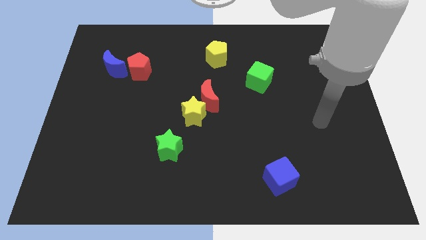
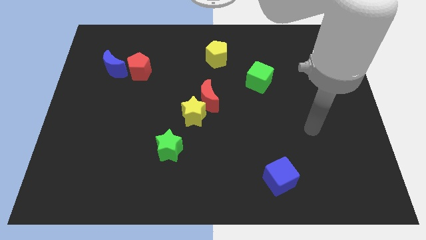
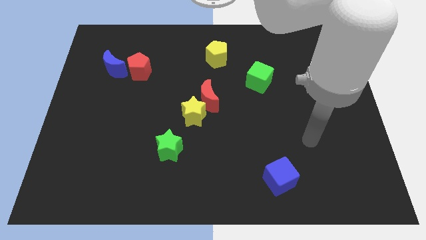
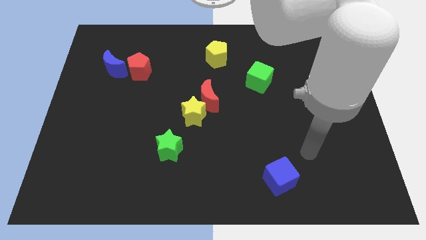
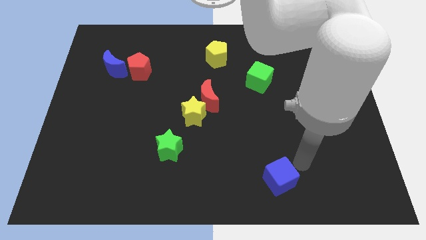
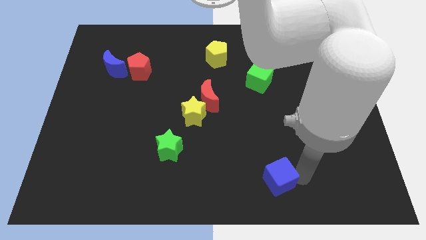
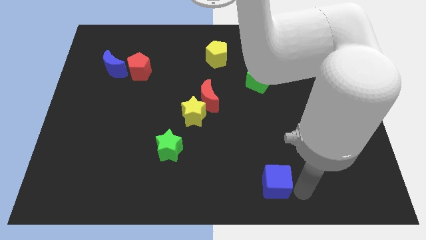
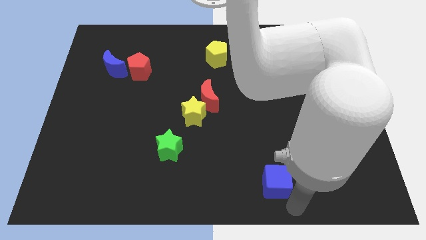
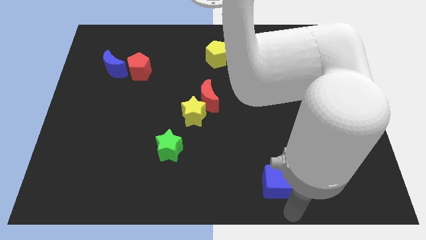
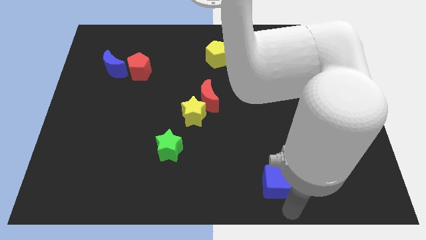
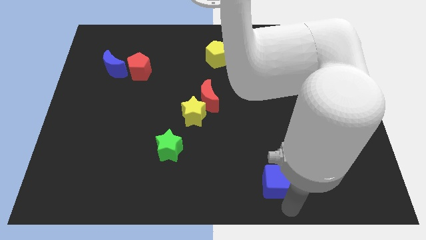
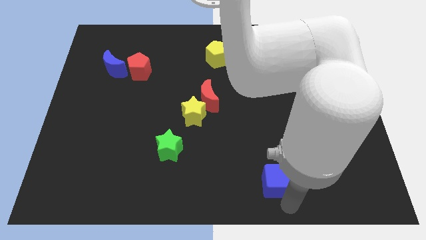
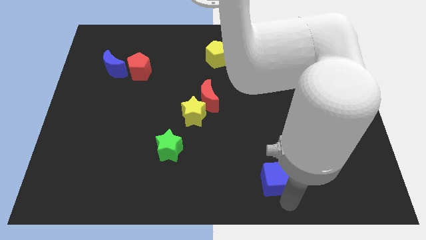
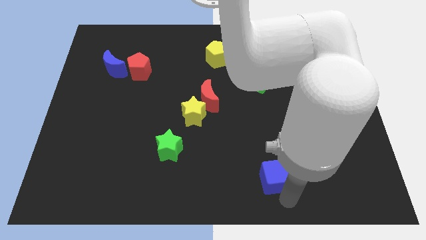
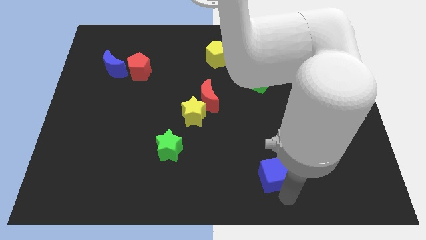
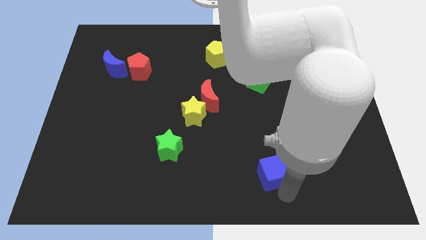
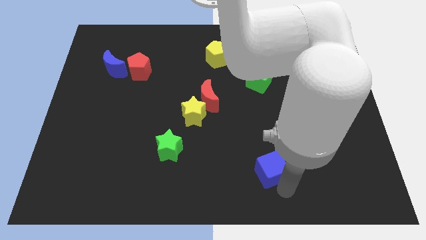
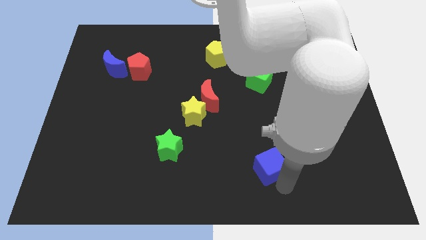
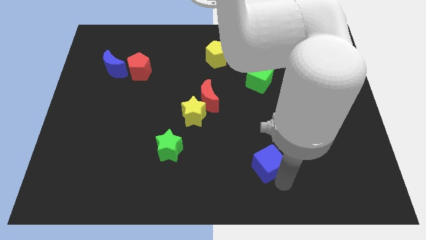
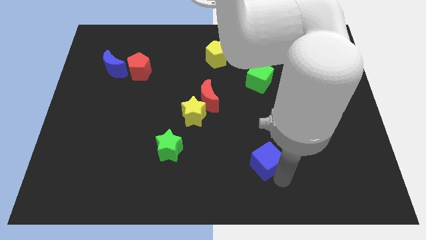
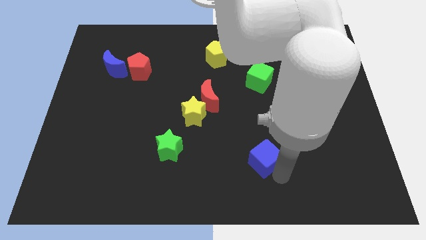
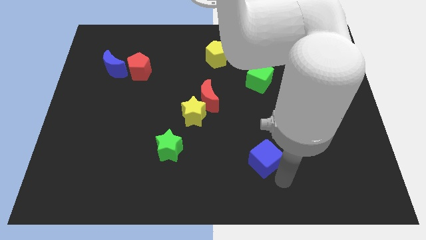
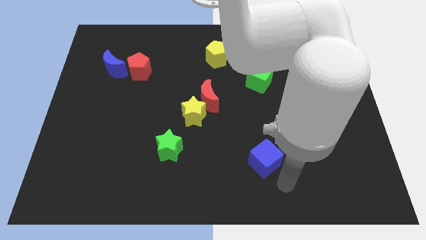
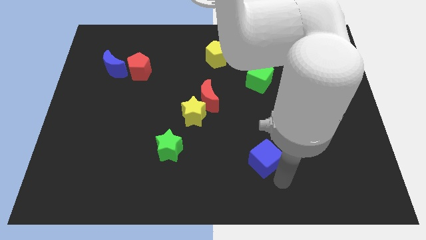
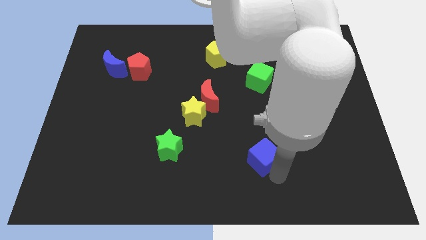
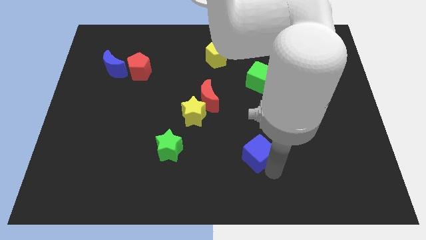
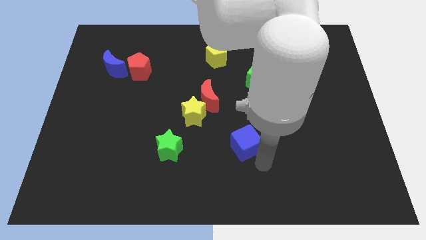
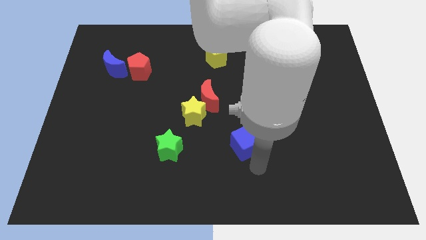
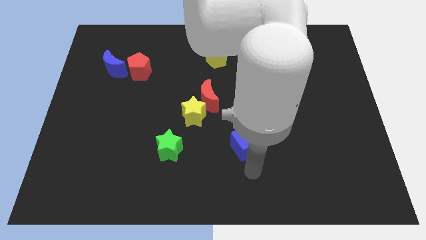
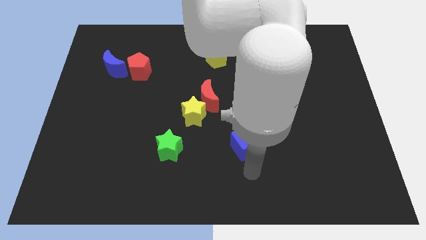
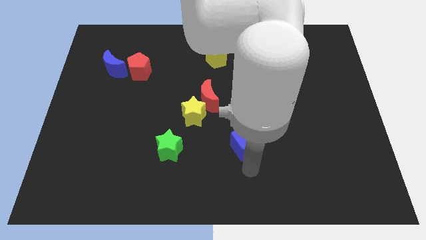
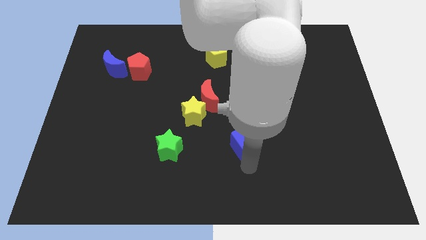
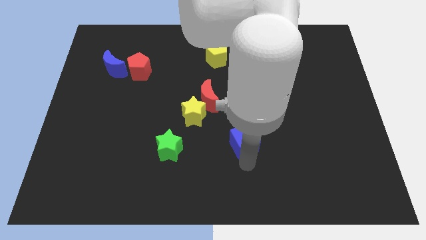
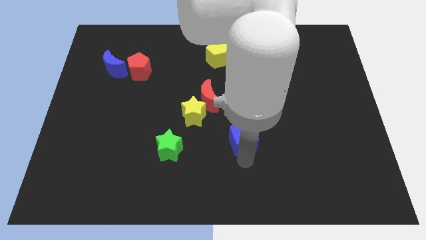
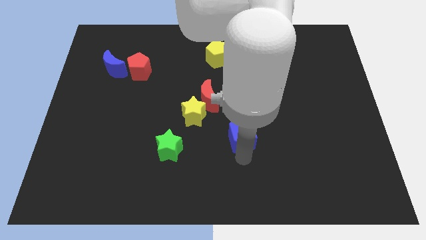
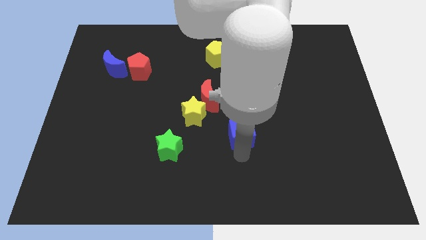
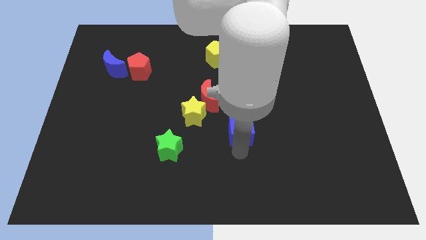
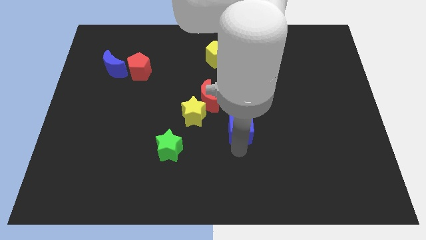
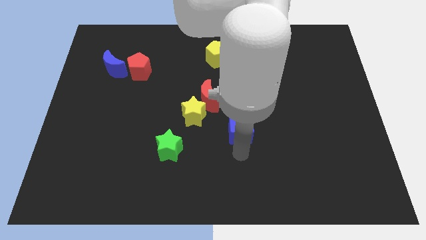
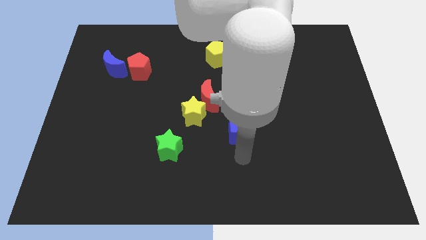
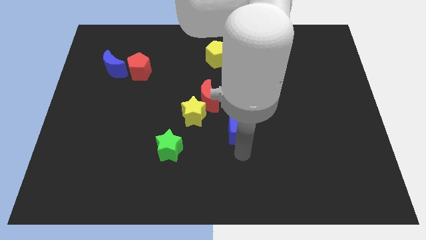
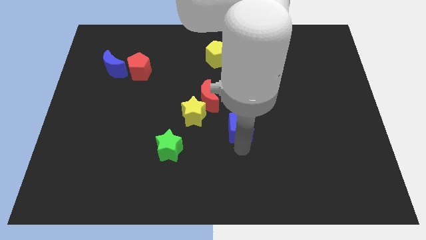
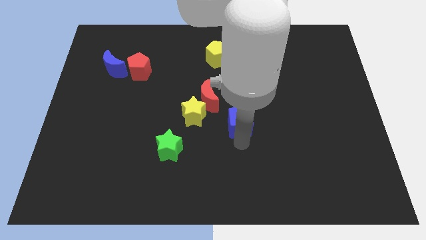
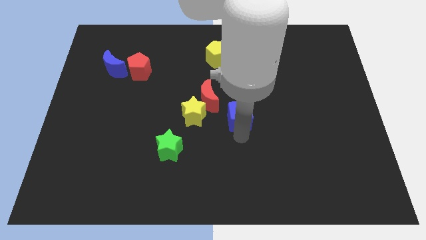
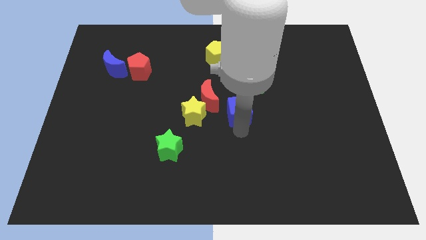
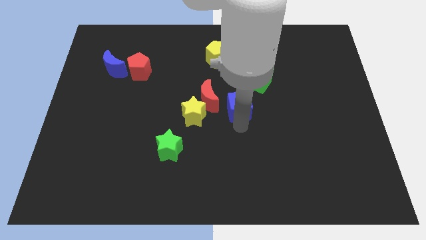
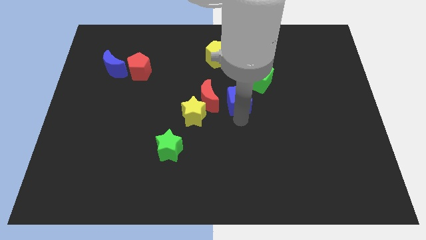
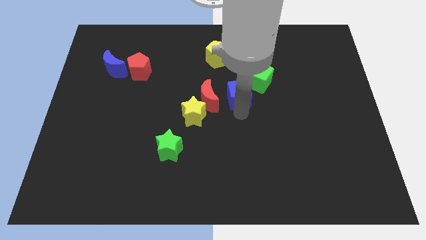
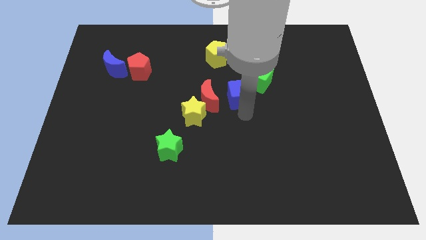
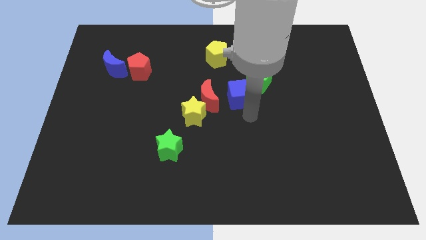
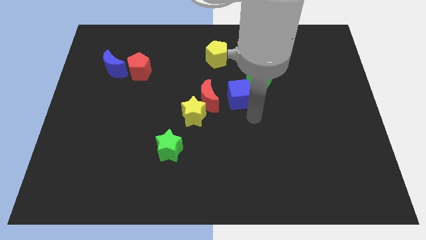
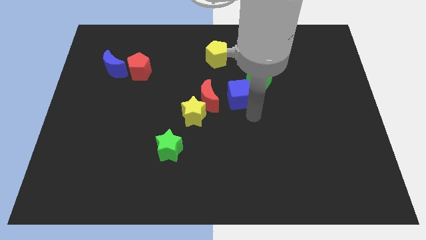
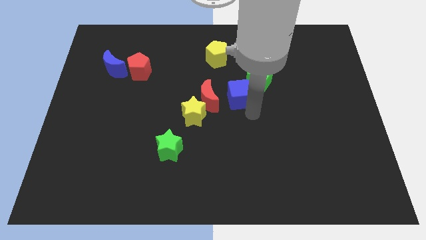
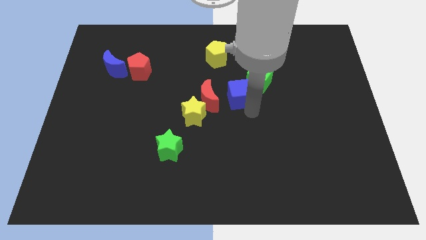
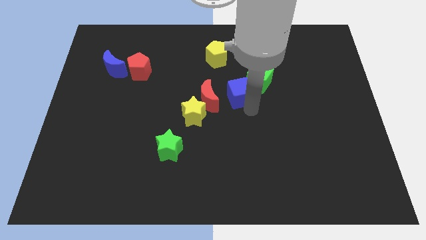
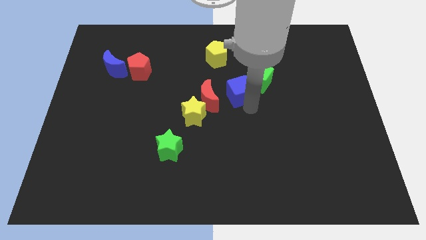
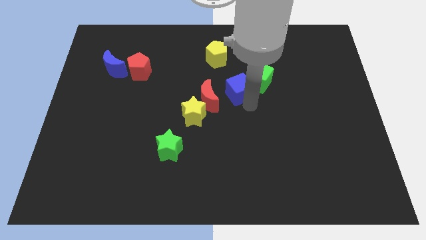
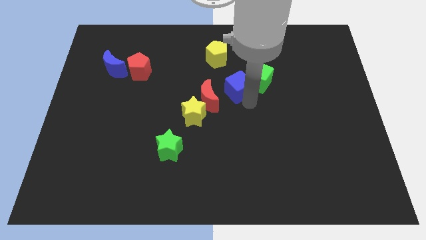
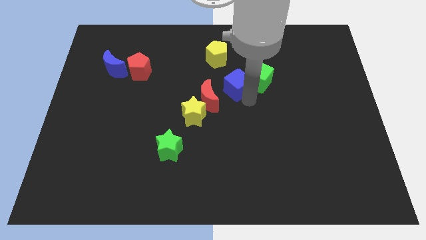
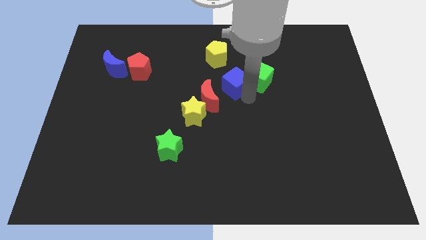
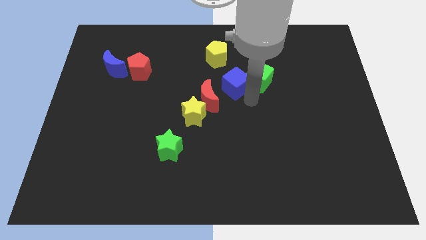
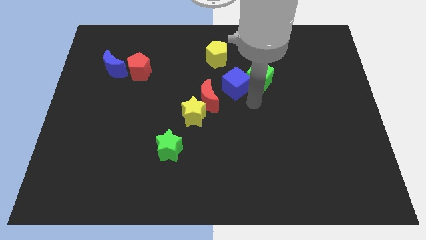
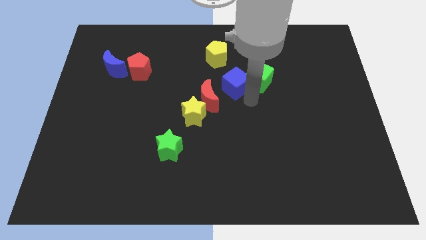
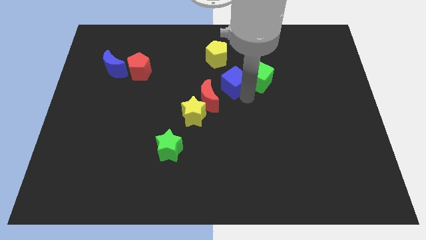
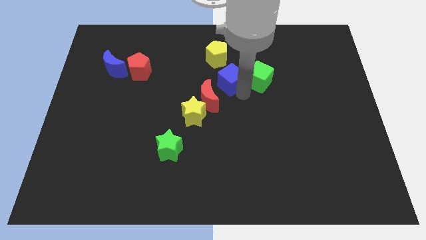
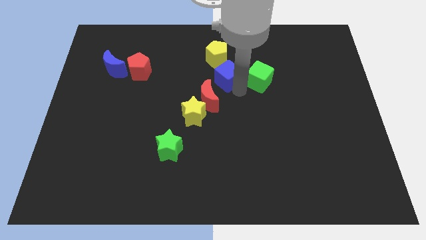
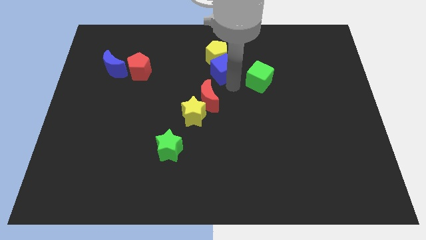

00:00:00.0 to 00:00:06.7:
slide the blue cube to the yellow pentagon
